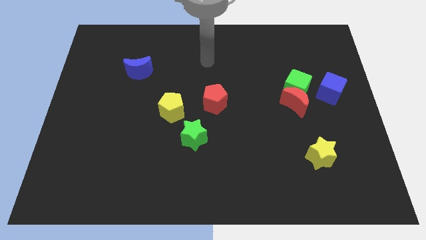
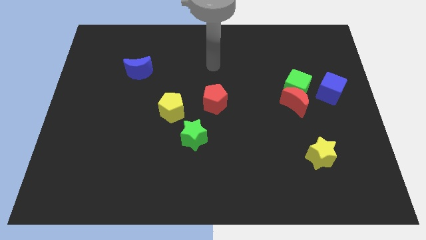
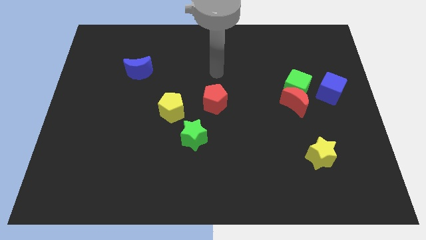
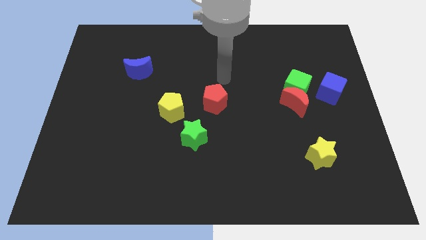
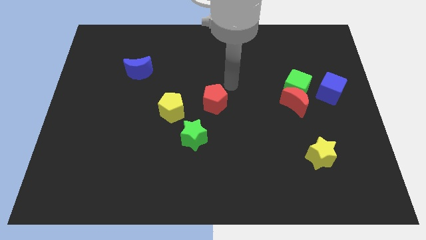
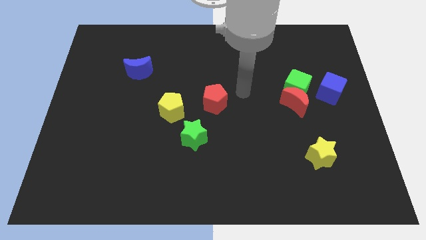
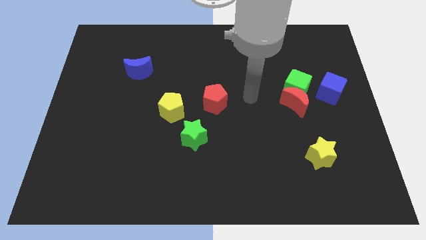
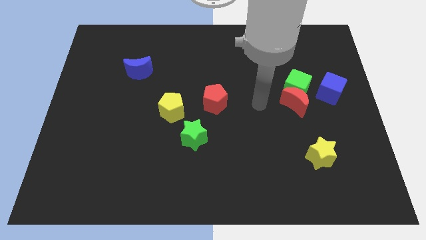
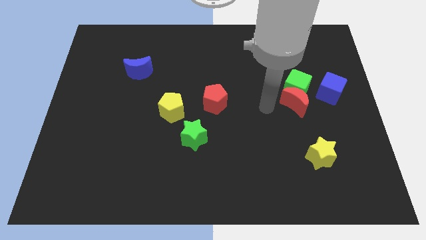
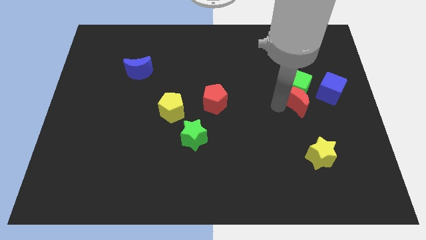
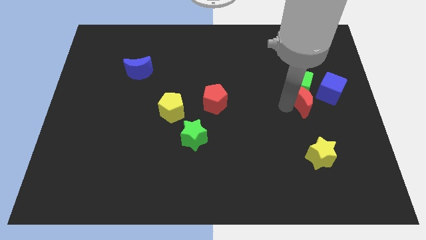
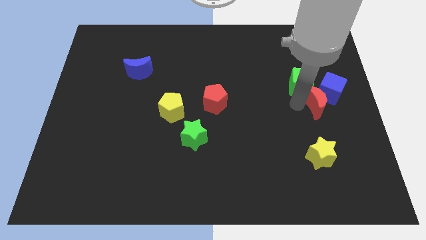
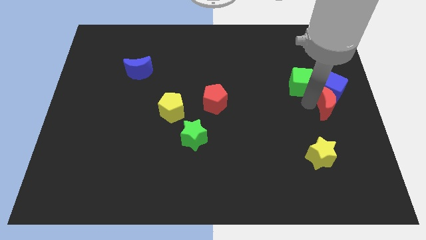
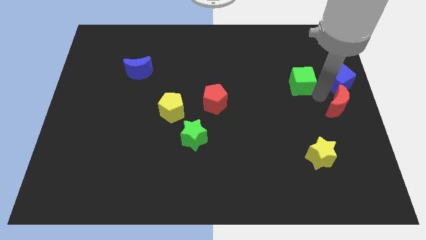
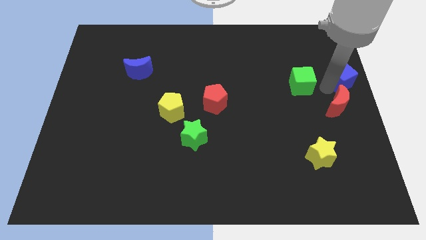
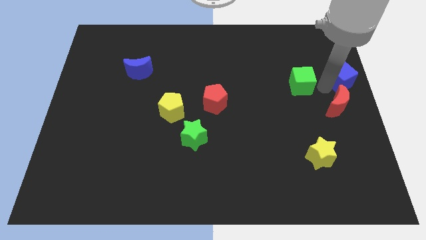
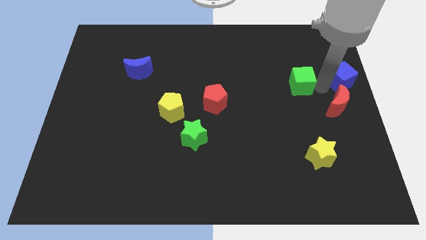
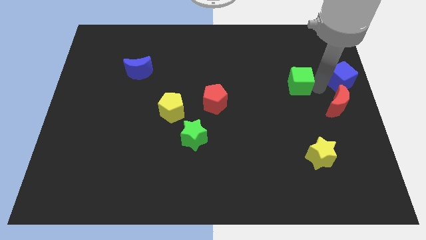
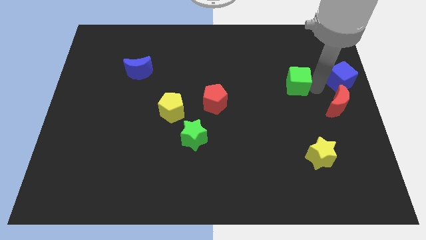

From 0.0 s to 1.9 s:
pull the green cube apart from the red moon and blue cube

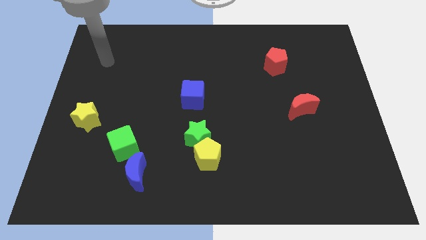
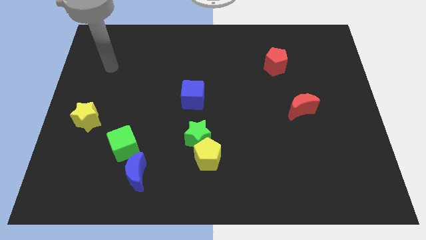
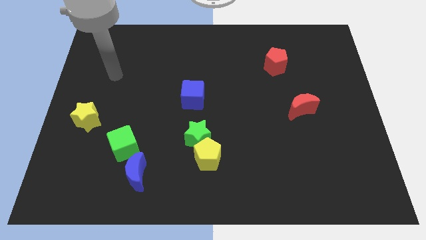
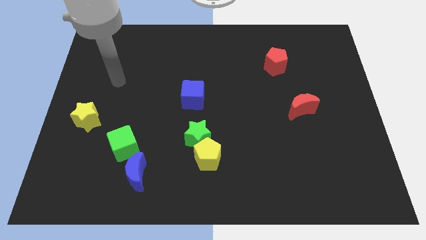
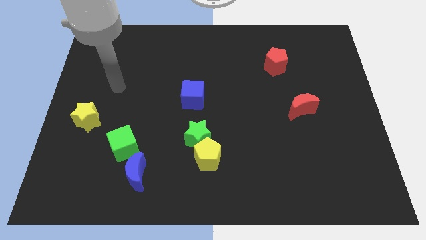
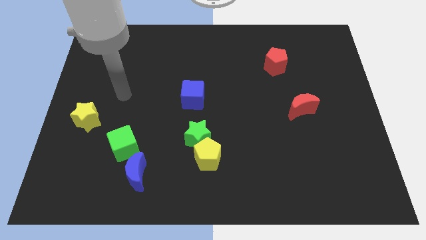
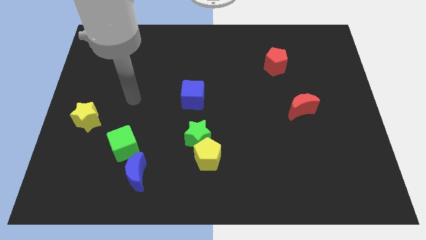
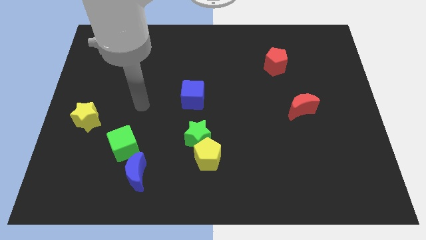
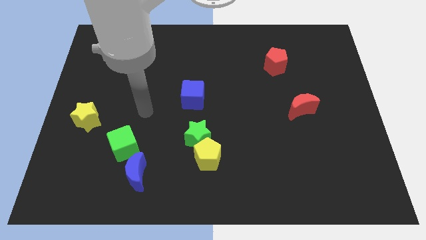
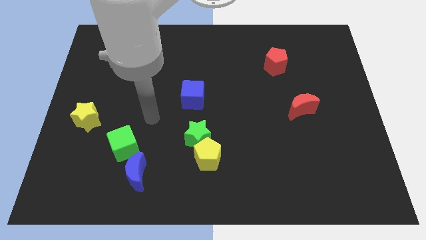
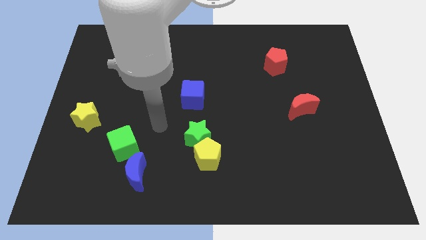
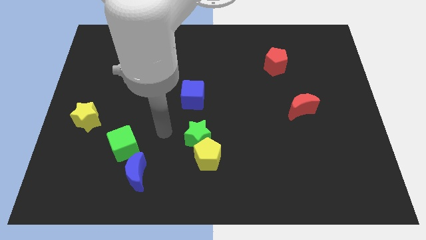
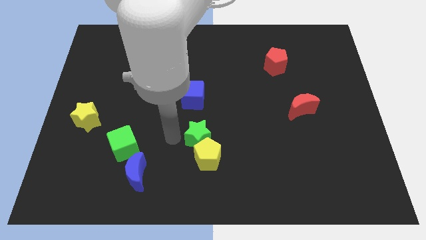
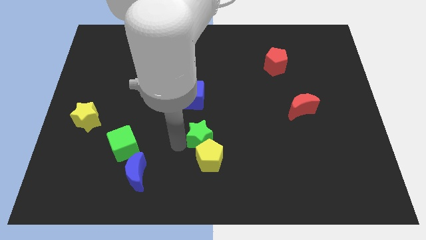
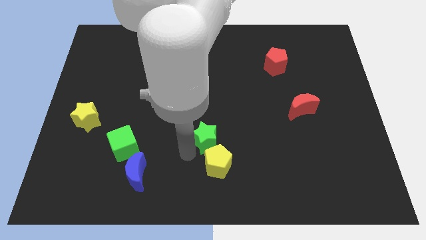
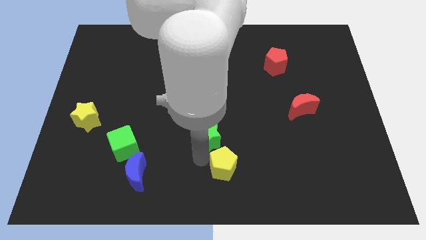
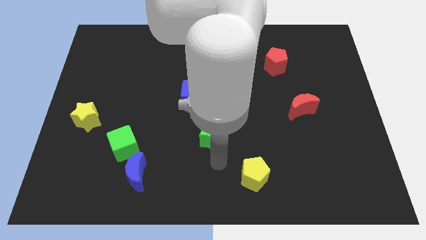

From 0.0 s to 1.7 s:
separate the green star from the yellow pentagon

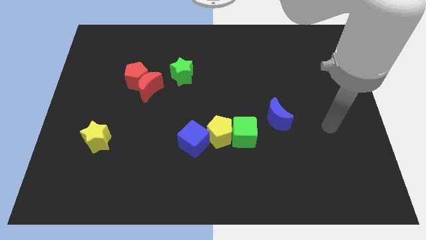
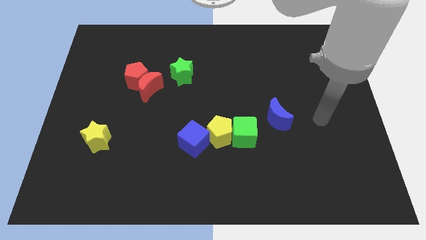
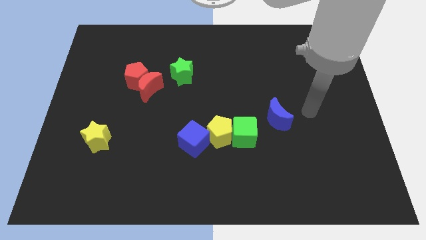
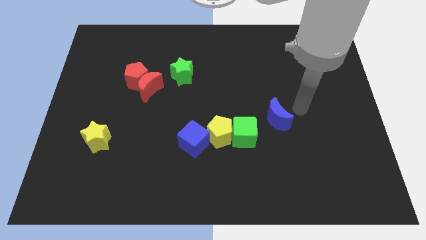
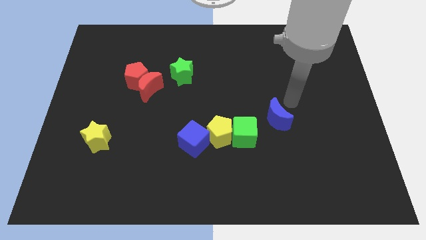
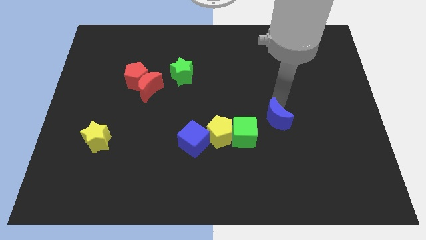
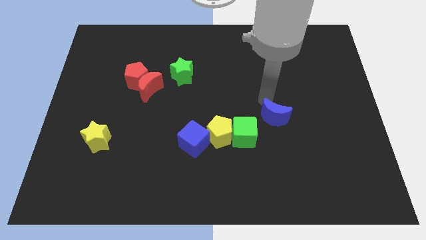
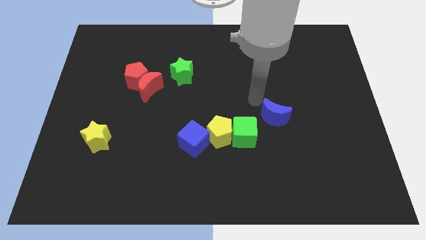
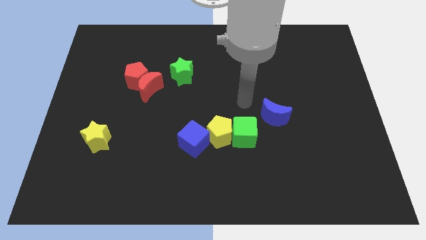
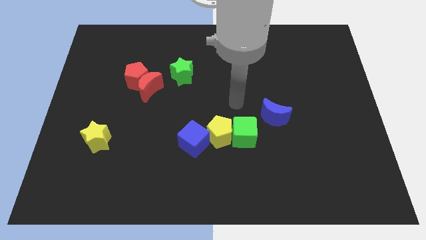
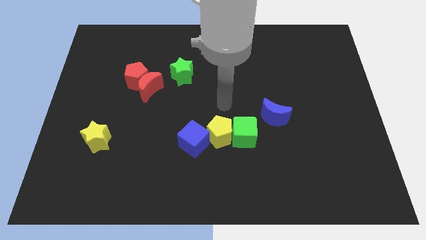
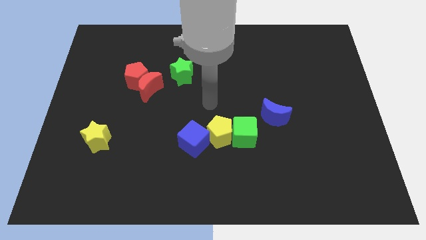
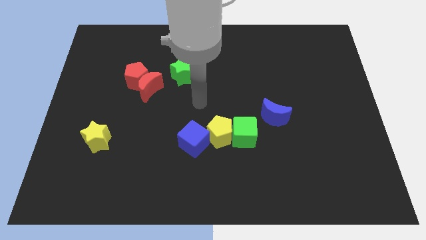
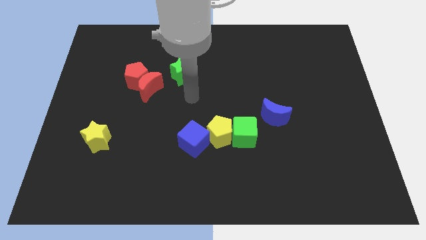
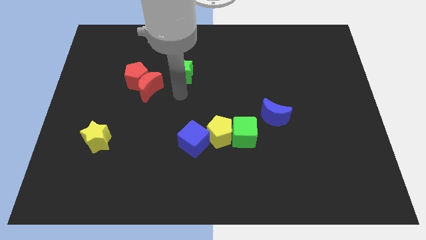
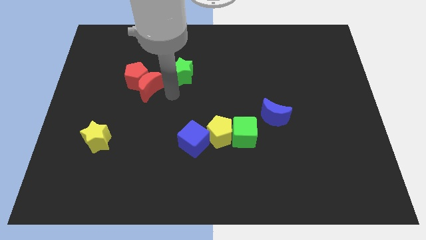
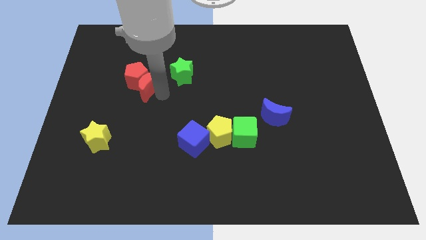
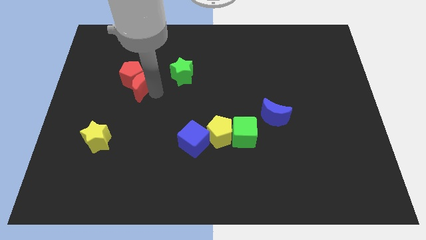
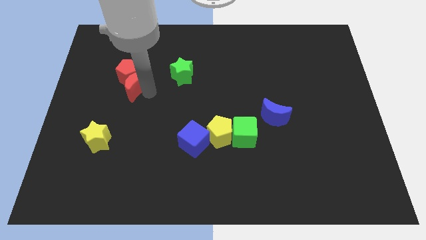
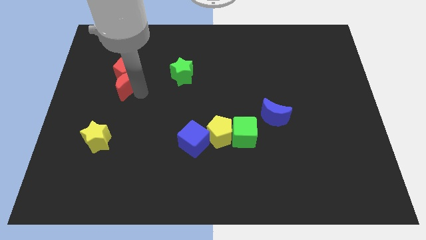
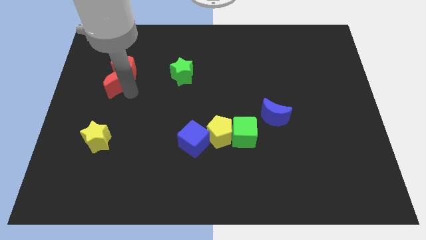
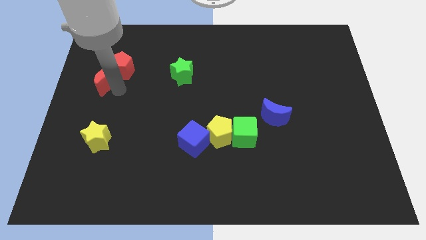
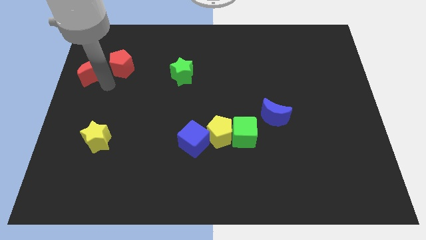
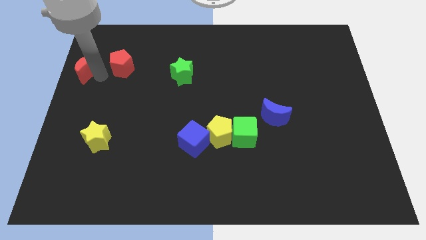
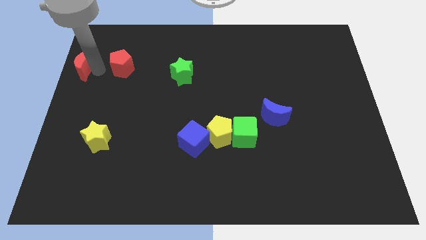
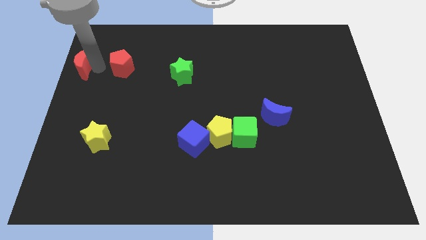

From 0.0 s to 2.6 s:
pull the red pentagon apart from the red moon

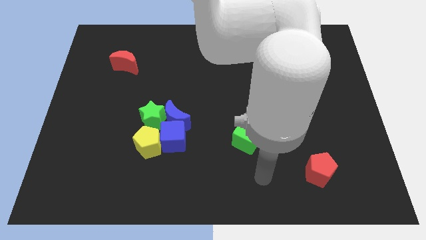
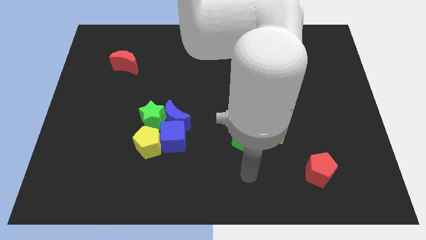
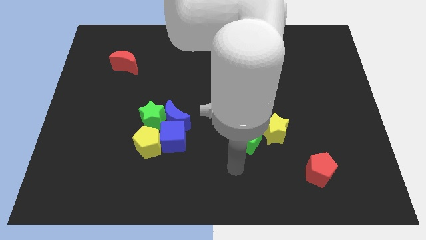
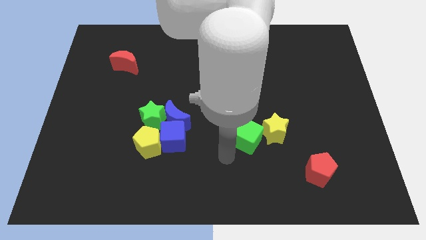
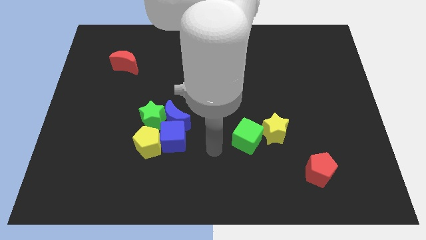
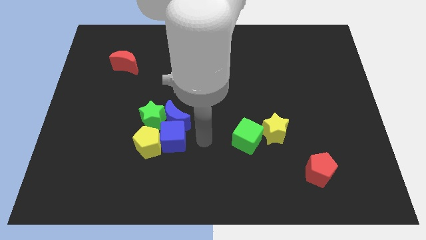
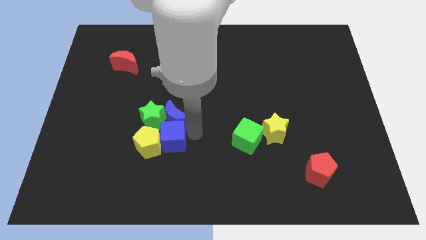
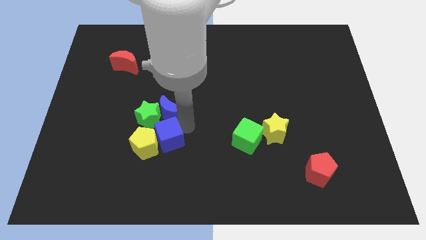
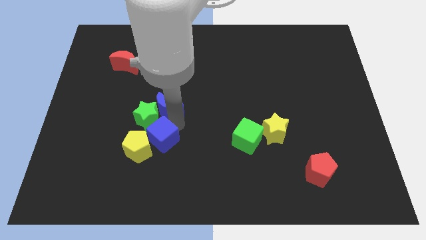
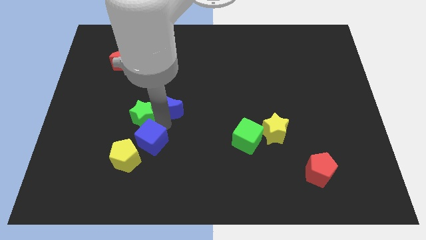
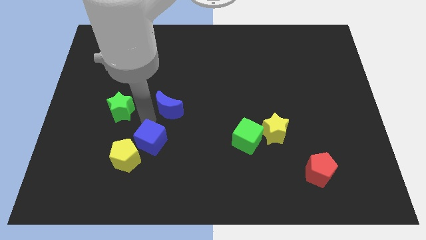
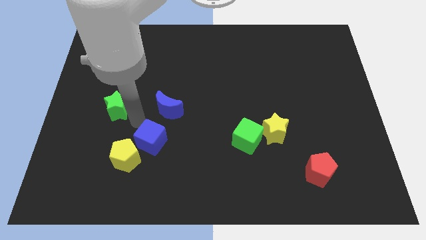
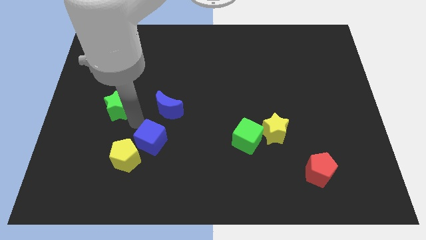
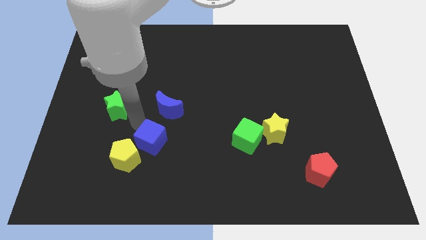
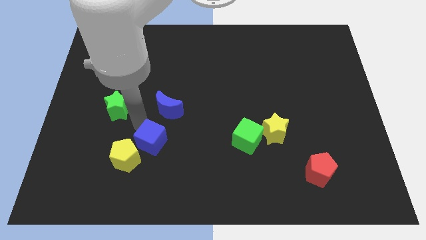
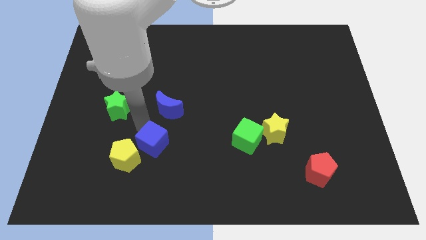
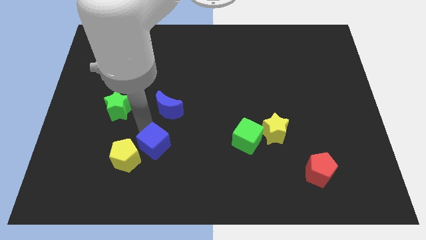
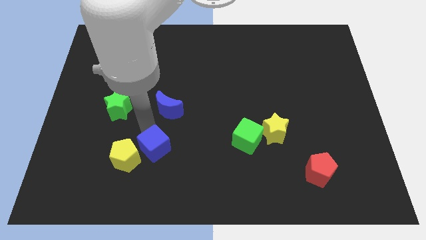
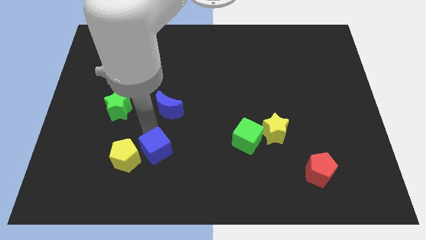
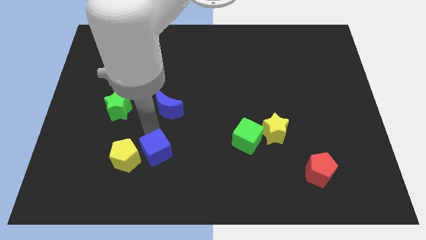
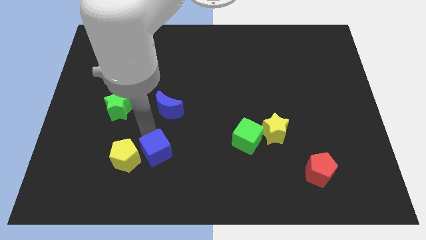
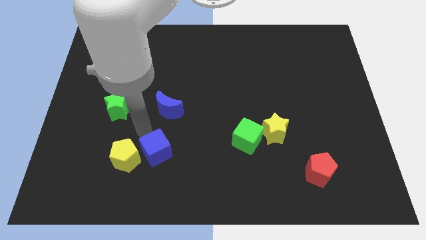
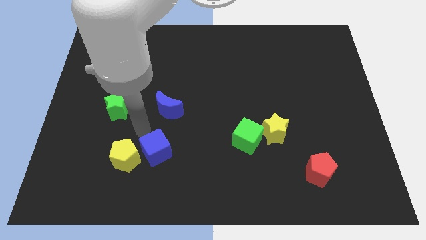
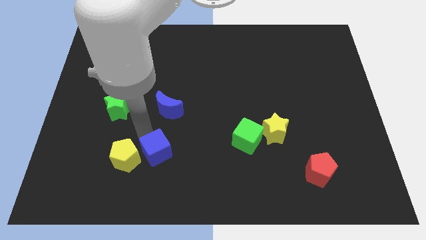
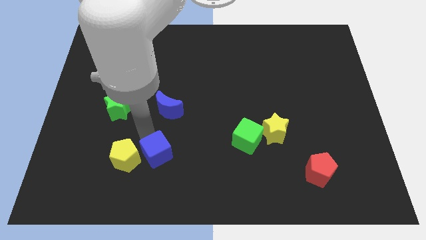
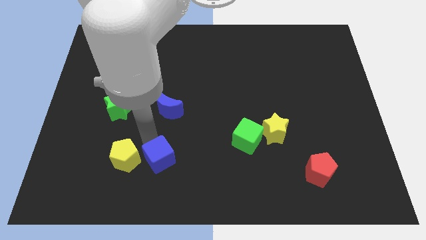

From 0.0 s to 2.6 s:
pull the blue cube apart from the blue moon, yellow pentagon, and green star

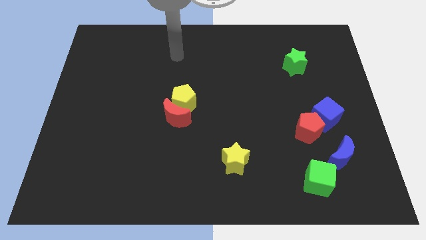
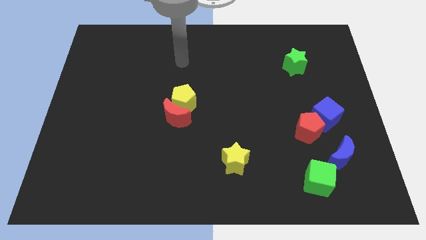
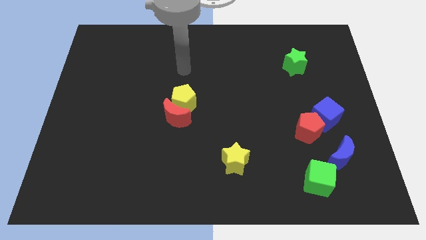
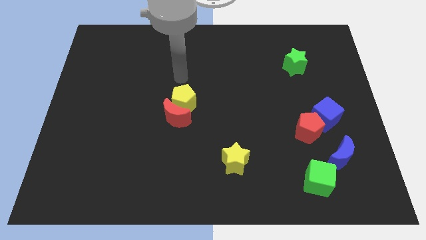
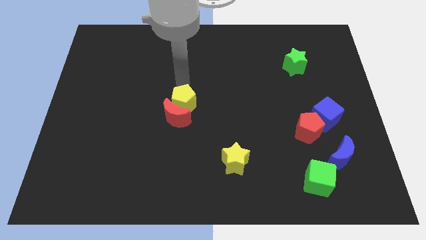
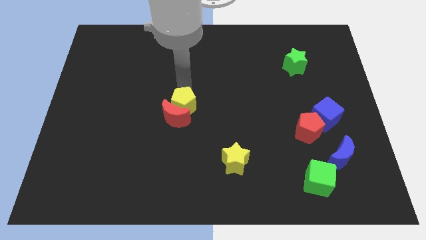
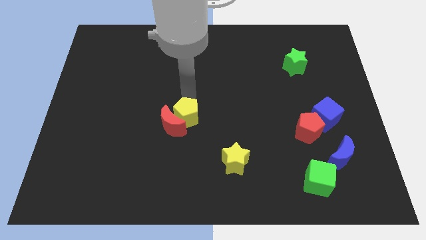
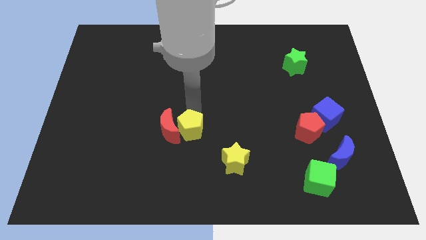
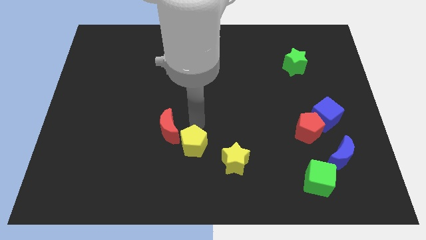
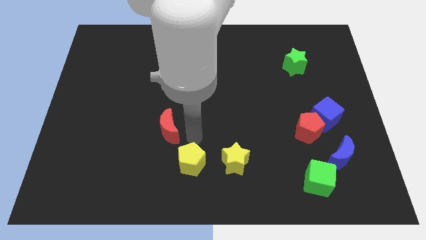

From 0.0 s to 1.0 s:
move the red moon away from the yellow pentagon
